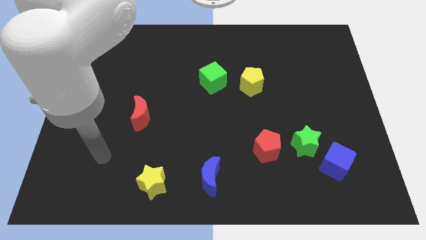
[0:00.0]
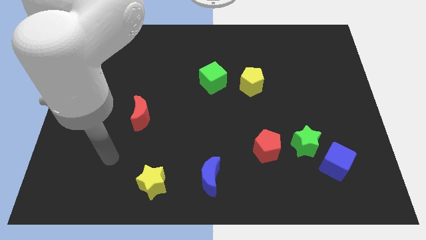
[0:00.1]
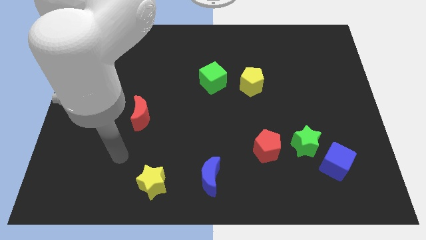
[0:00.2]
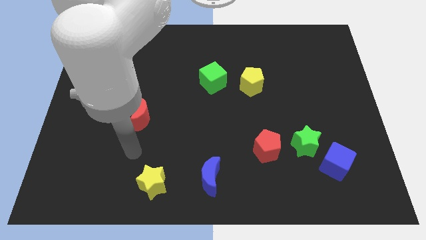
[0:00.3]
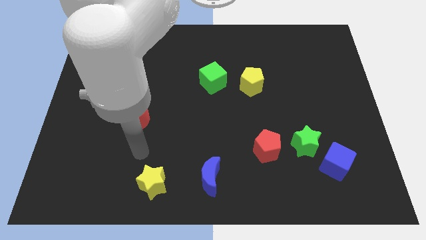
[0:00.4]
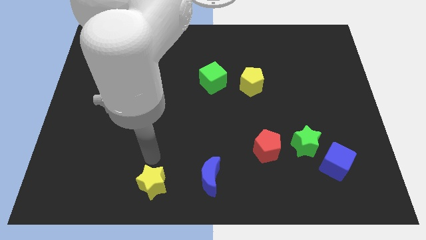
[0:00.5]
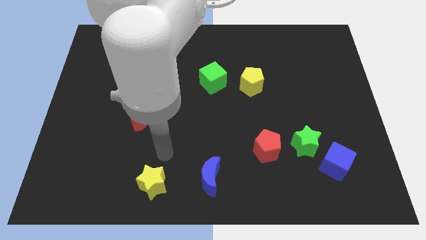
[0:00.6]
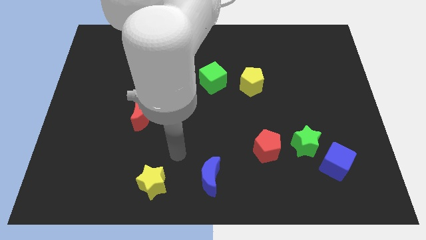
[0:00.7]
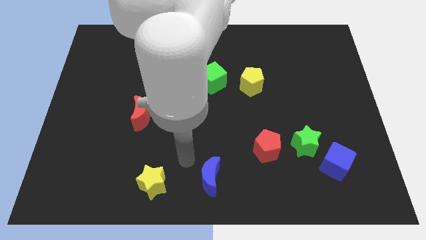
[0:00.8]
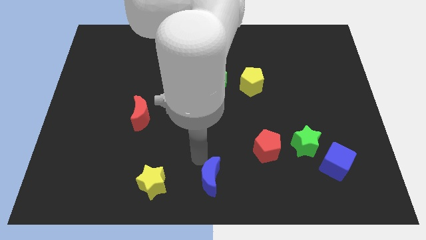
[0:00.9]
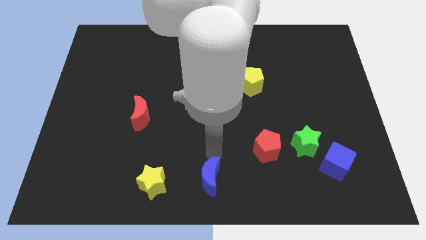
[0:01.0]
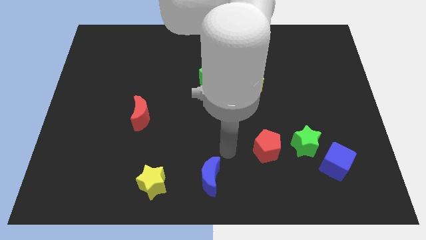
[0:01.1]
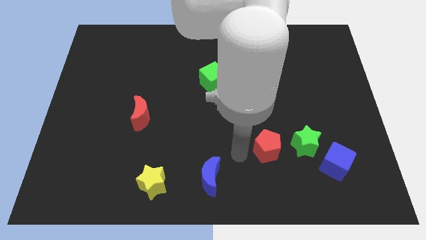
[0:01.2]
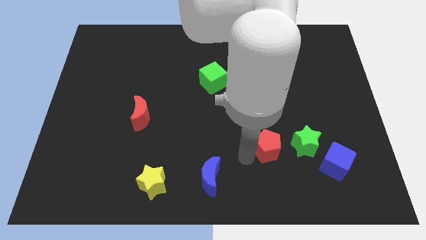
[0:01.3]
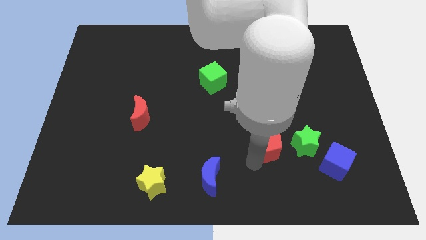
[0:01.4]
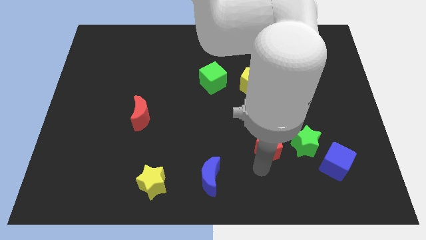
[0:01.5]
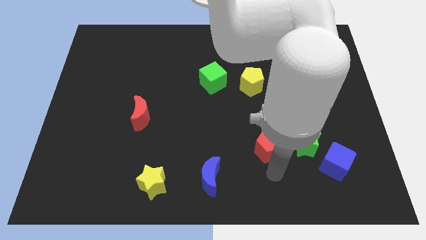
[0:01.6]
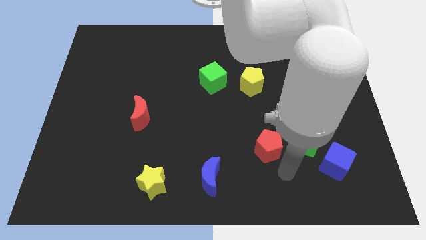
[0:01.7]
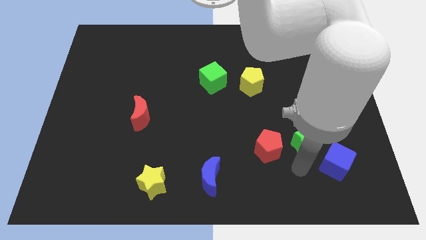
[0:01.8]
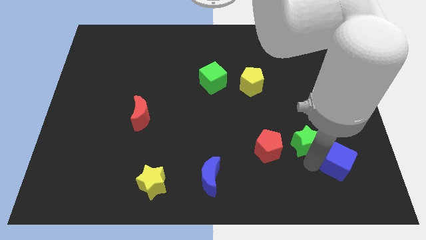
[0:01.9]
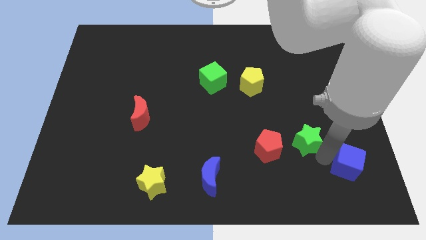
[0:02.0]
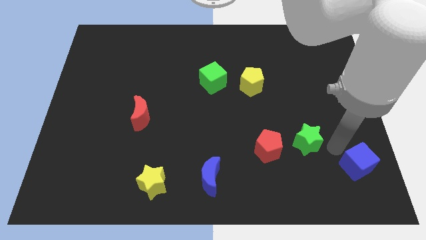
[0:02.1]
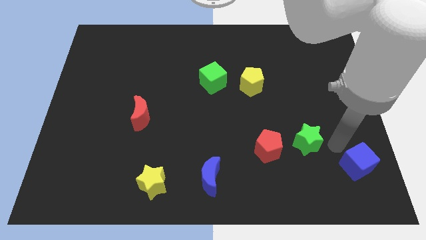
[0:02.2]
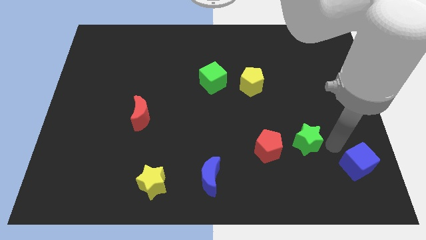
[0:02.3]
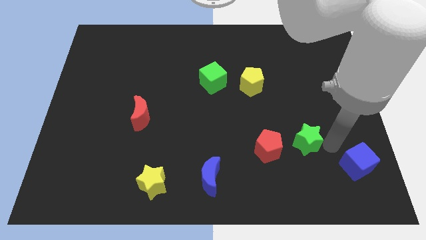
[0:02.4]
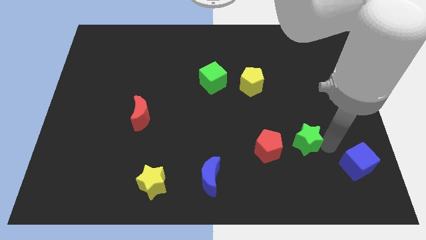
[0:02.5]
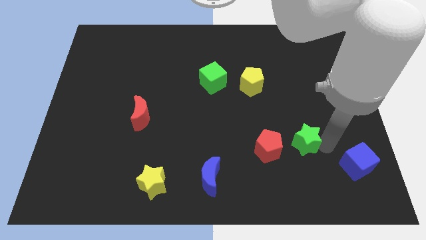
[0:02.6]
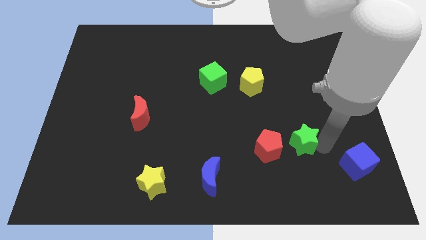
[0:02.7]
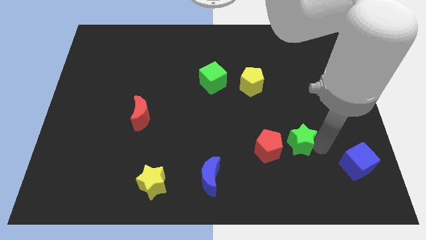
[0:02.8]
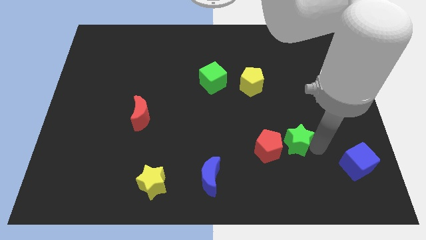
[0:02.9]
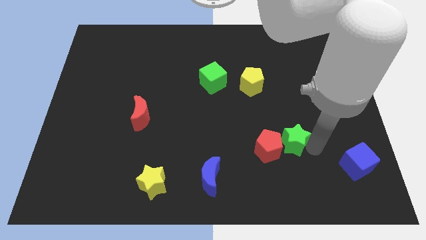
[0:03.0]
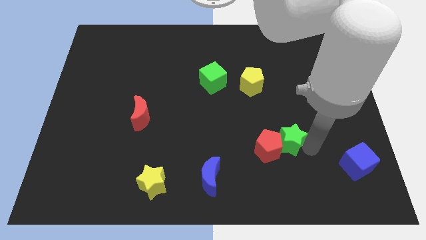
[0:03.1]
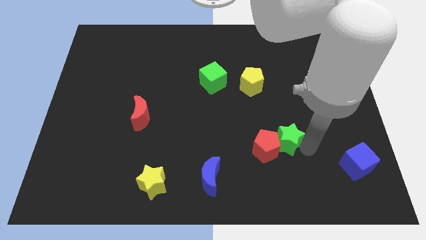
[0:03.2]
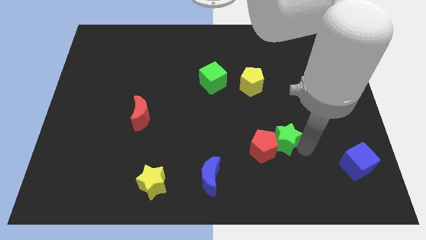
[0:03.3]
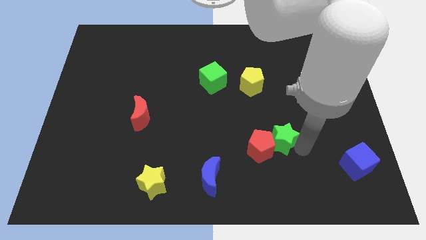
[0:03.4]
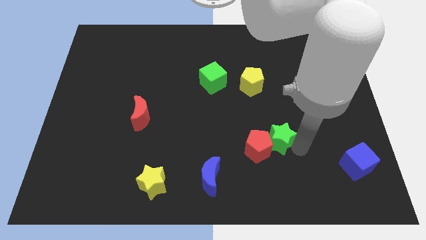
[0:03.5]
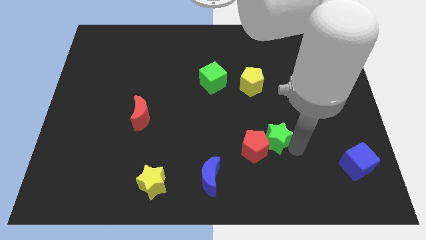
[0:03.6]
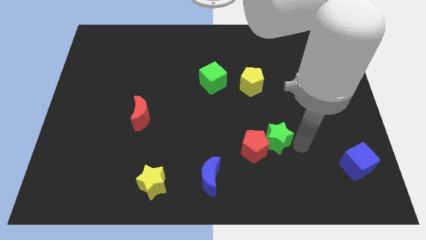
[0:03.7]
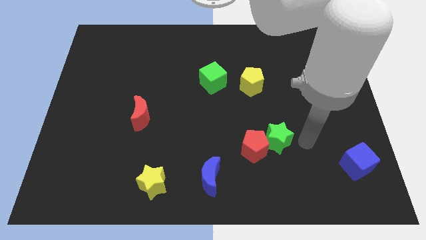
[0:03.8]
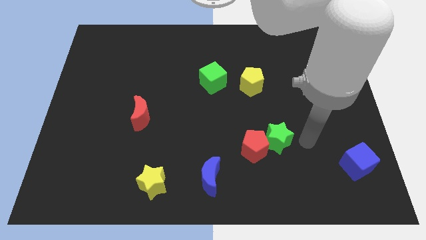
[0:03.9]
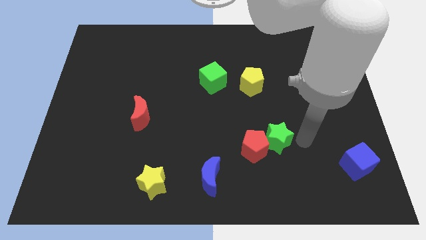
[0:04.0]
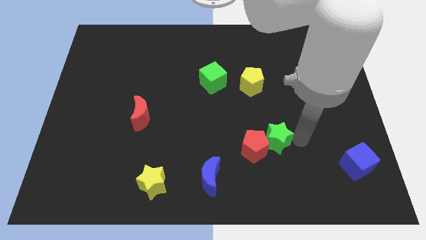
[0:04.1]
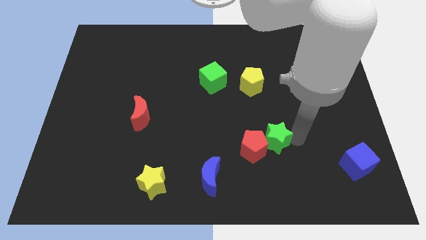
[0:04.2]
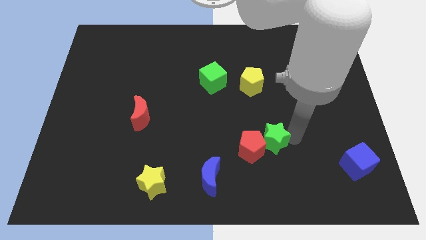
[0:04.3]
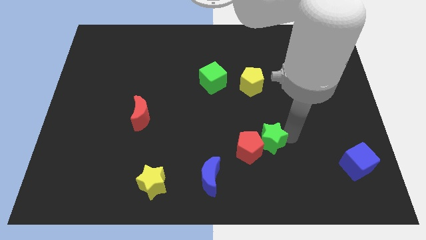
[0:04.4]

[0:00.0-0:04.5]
slide the green star somewhat left

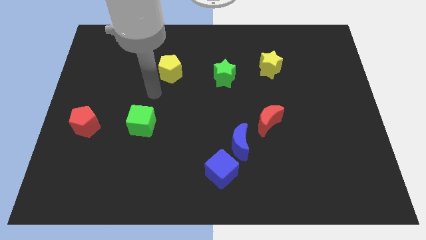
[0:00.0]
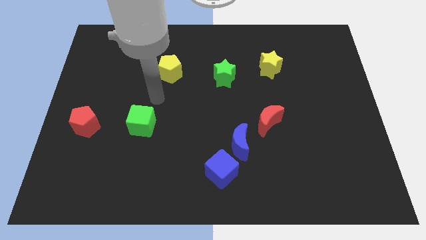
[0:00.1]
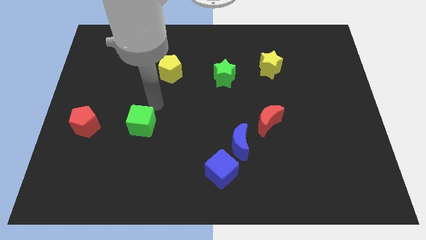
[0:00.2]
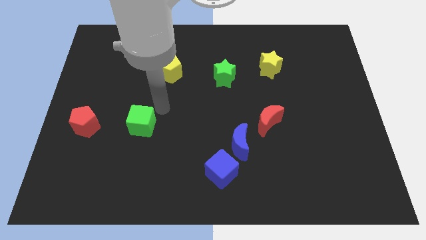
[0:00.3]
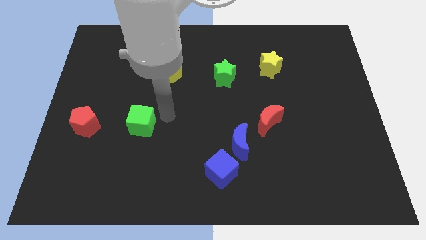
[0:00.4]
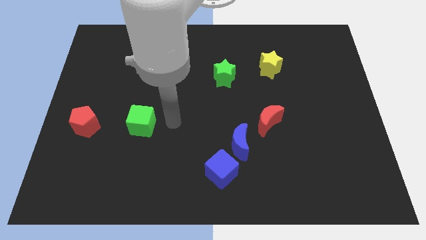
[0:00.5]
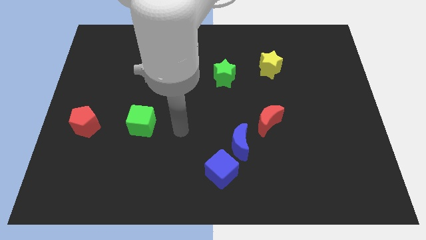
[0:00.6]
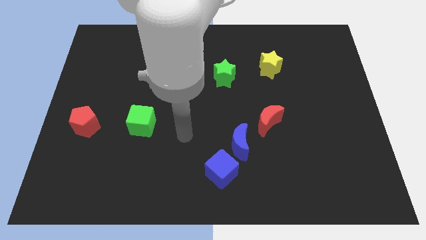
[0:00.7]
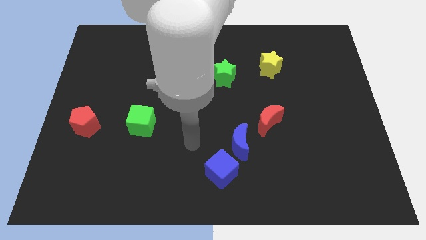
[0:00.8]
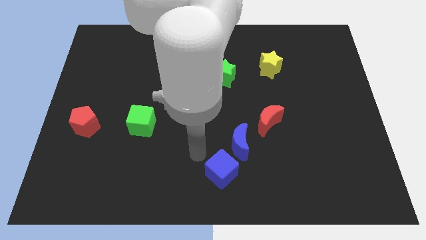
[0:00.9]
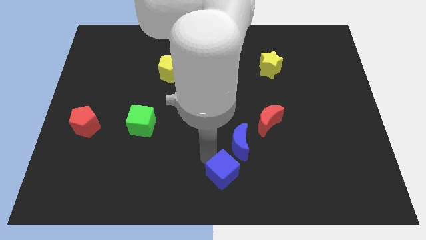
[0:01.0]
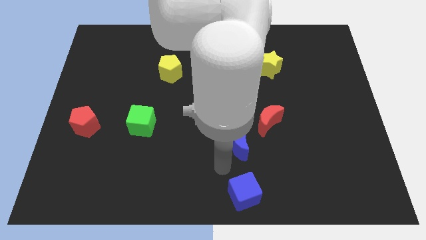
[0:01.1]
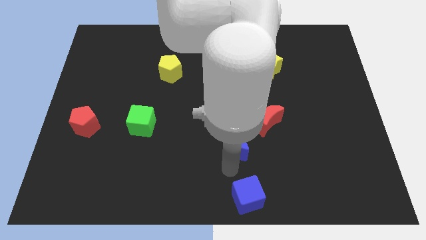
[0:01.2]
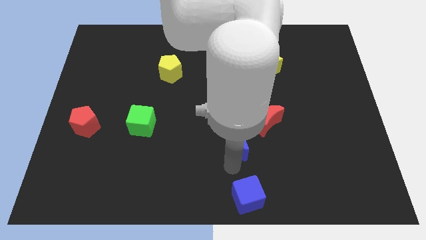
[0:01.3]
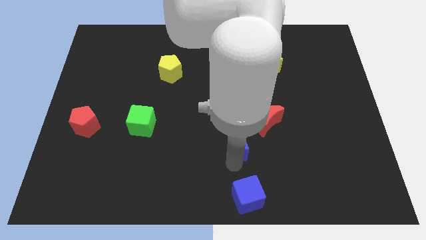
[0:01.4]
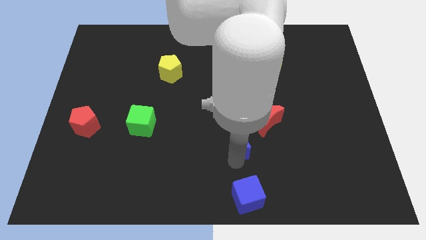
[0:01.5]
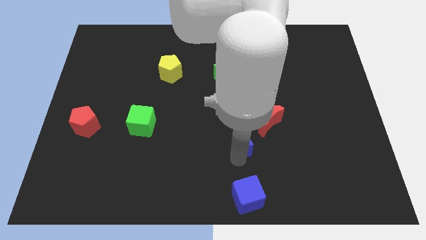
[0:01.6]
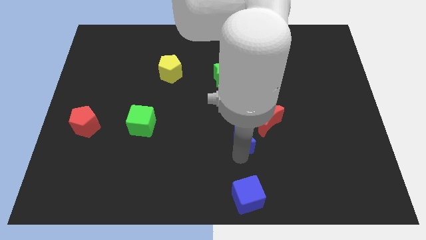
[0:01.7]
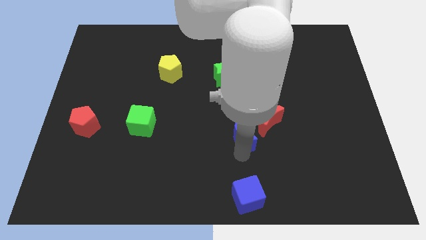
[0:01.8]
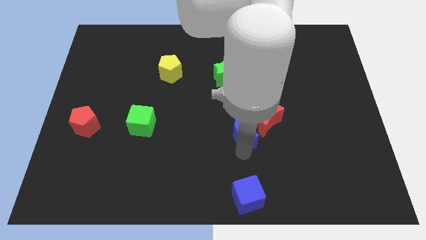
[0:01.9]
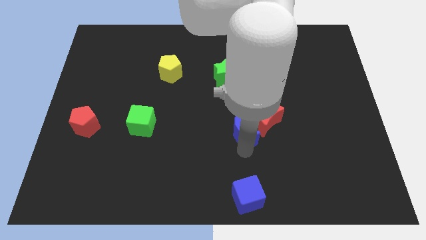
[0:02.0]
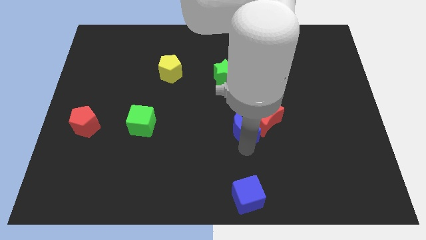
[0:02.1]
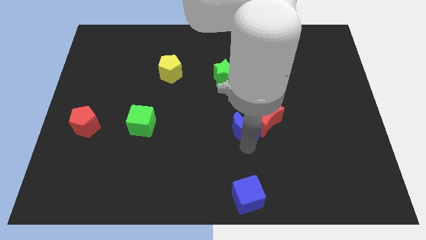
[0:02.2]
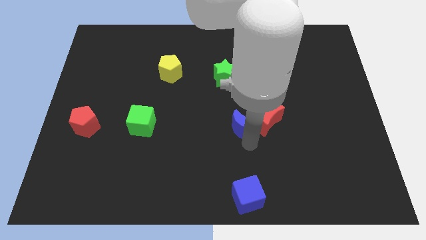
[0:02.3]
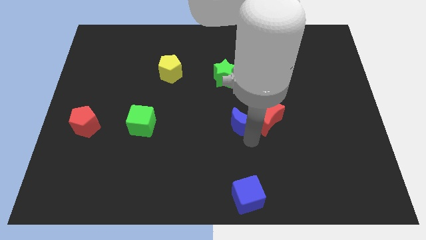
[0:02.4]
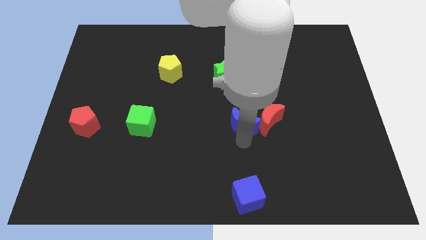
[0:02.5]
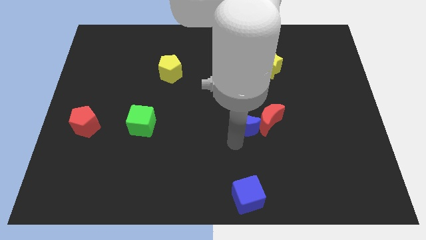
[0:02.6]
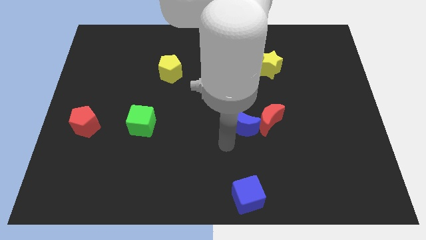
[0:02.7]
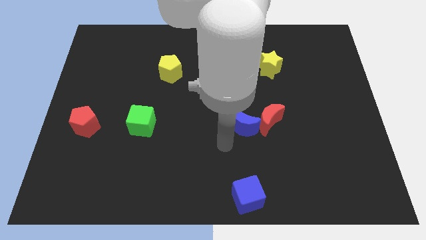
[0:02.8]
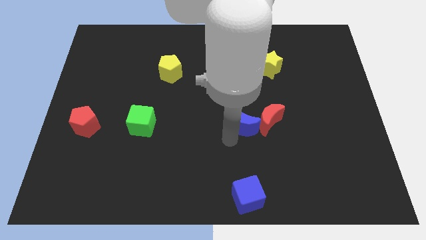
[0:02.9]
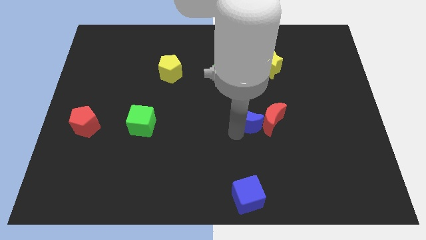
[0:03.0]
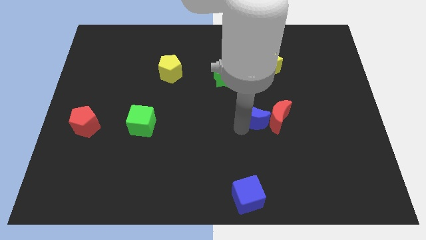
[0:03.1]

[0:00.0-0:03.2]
slightly slide the blue moon up and then to the right

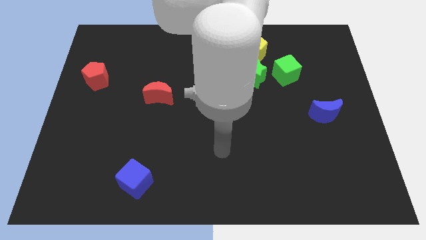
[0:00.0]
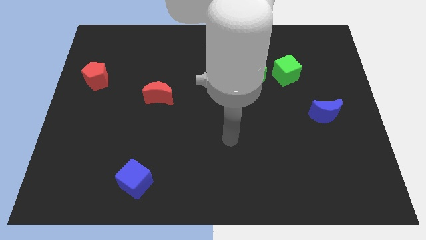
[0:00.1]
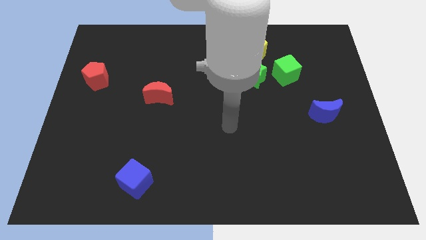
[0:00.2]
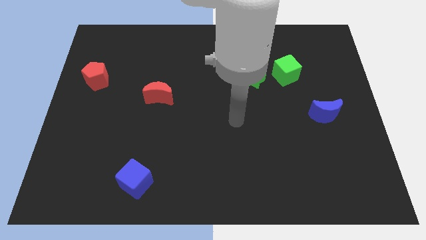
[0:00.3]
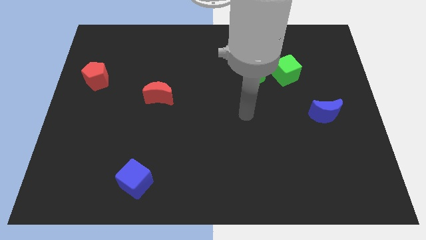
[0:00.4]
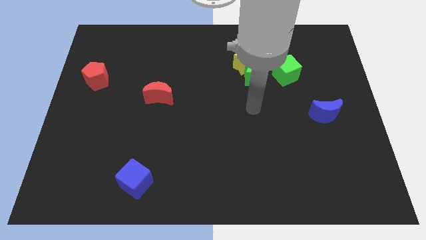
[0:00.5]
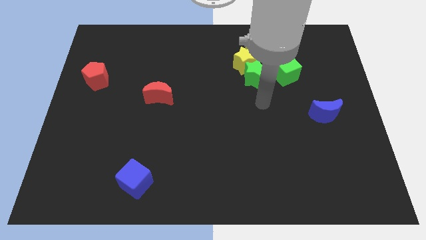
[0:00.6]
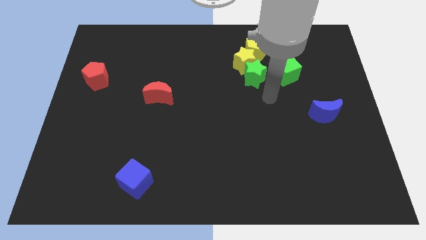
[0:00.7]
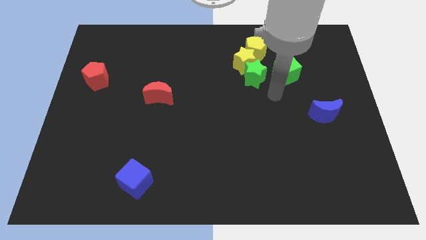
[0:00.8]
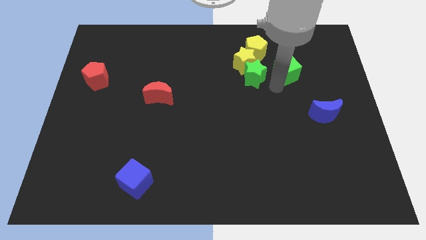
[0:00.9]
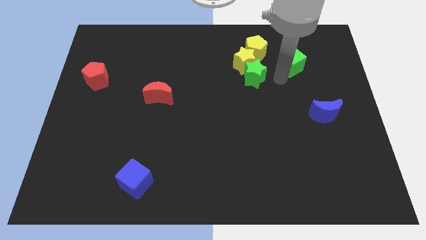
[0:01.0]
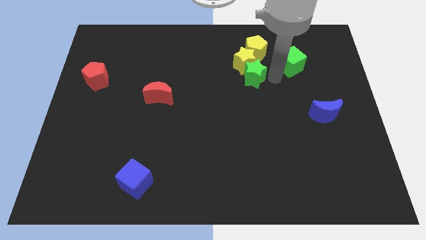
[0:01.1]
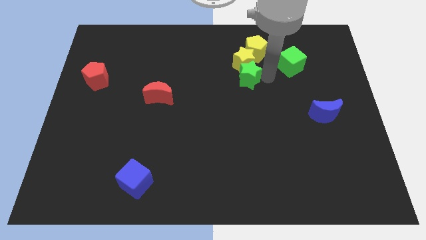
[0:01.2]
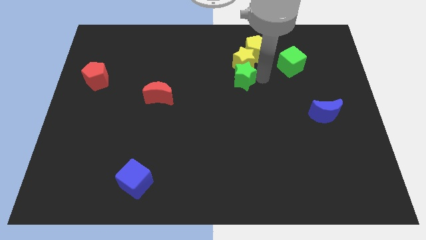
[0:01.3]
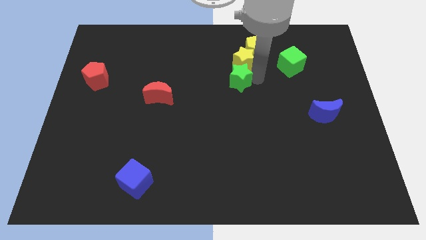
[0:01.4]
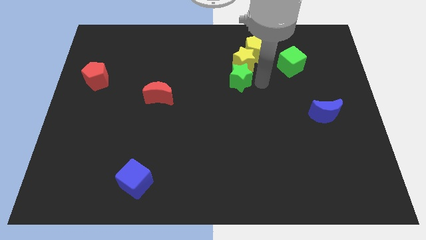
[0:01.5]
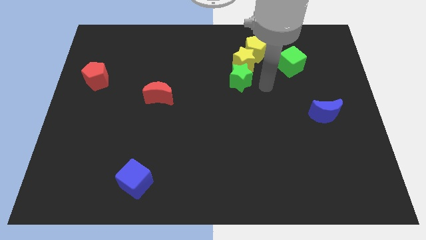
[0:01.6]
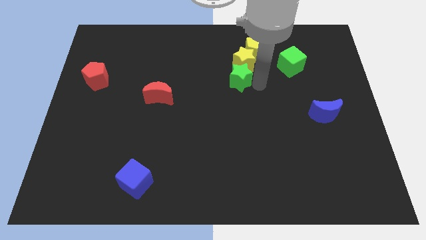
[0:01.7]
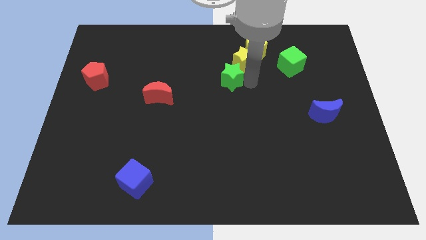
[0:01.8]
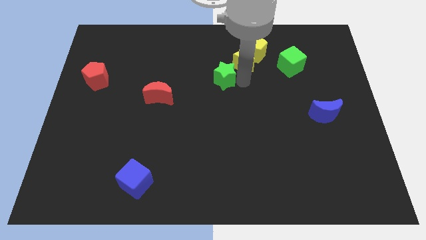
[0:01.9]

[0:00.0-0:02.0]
move the green star to the left a bit
